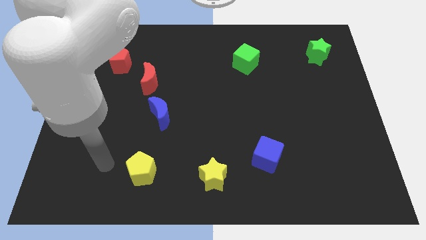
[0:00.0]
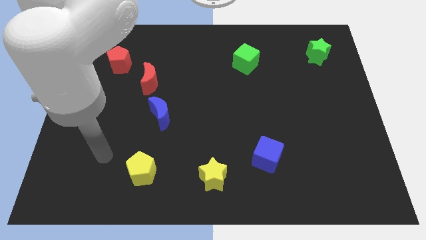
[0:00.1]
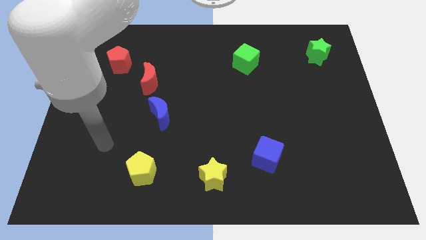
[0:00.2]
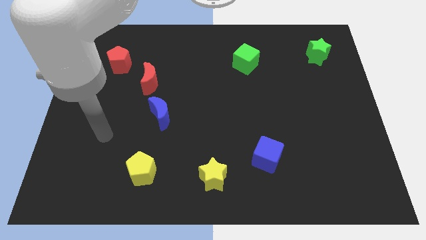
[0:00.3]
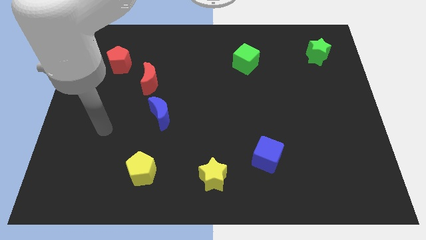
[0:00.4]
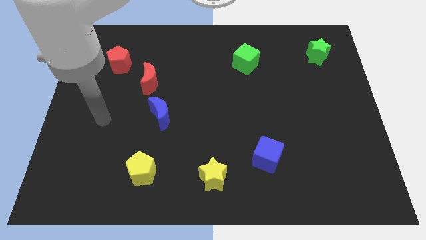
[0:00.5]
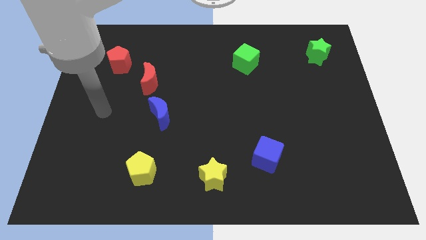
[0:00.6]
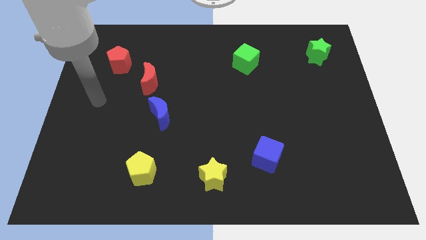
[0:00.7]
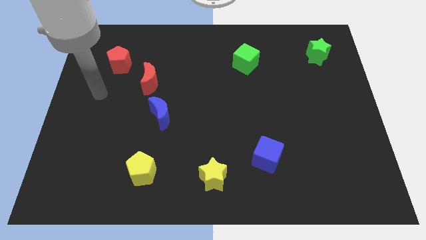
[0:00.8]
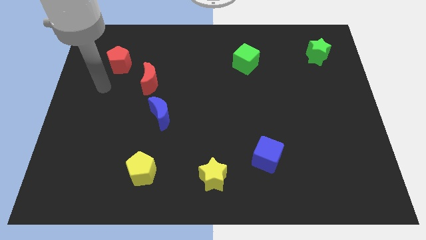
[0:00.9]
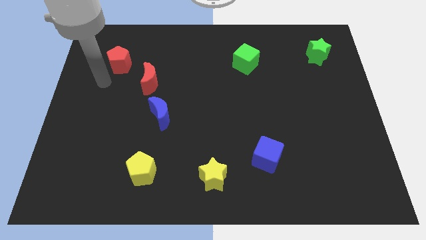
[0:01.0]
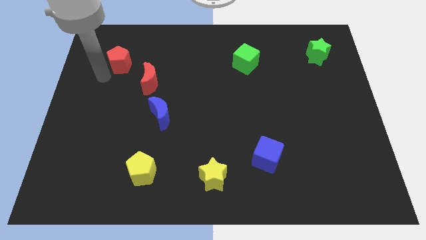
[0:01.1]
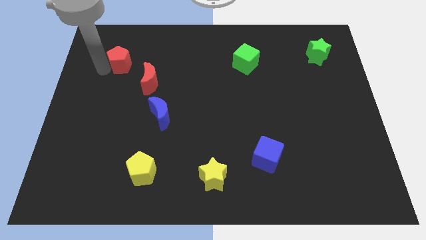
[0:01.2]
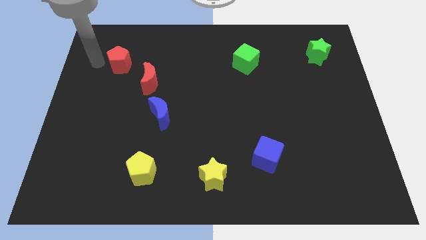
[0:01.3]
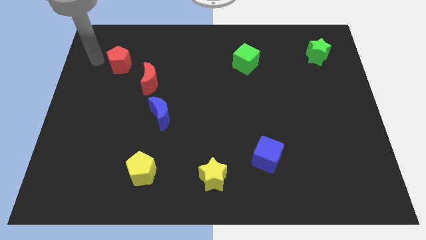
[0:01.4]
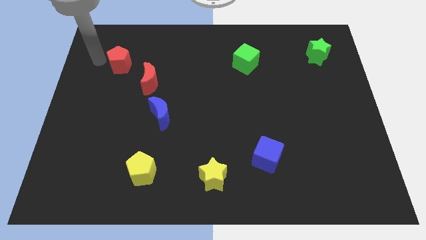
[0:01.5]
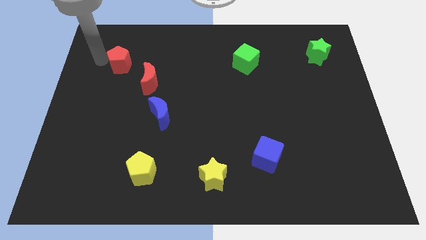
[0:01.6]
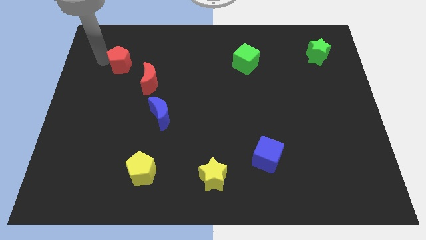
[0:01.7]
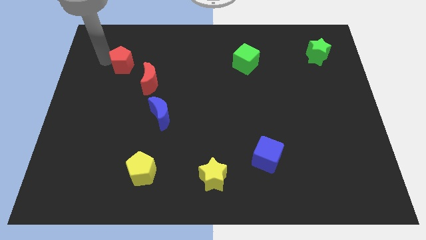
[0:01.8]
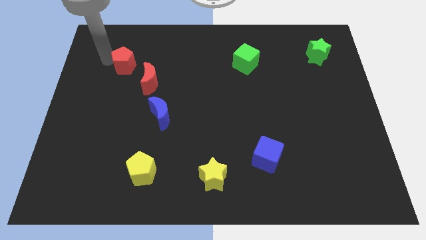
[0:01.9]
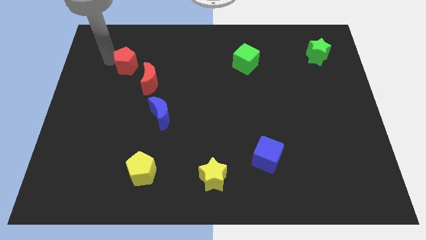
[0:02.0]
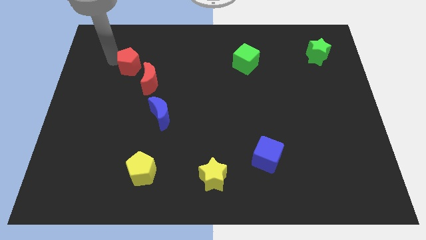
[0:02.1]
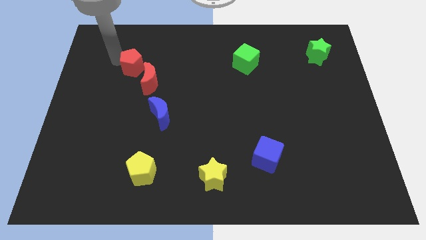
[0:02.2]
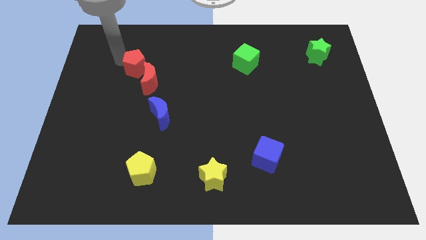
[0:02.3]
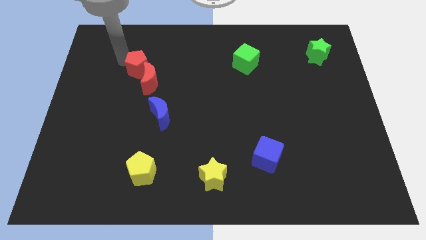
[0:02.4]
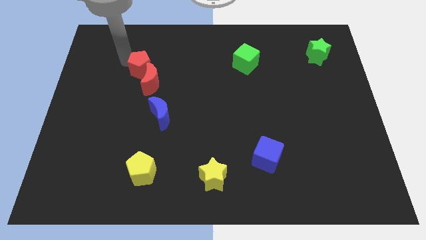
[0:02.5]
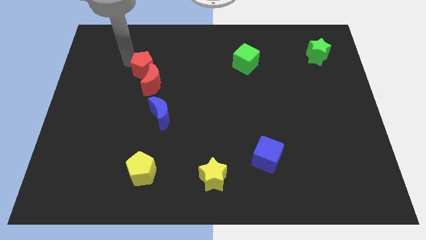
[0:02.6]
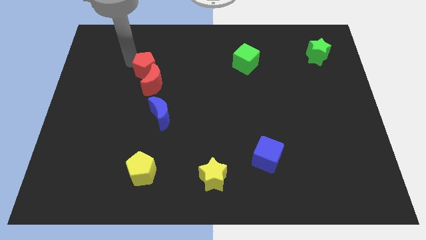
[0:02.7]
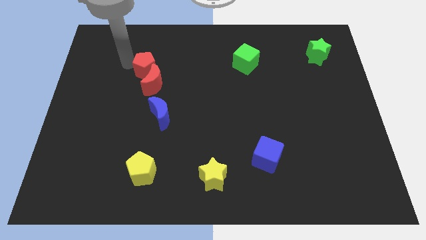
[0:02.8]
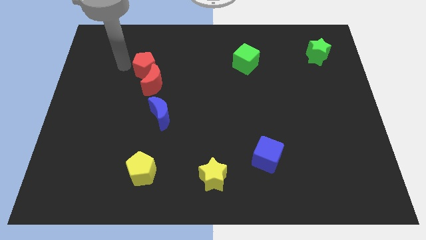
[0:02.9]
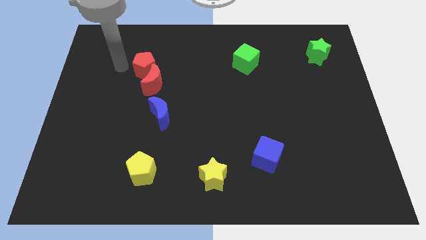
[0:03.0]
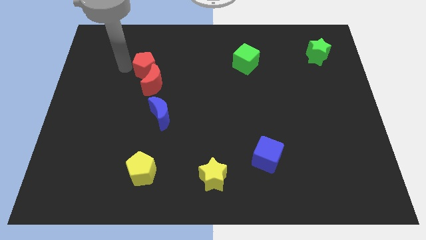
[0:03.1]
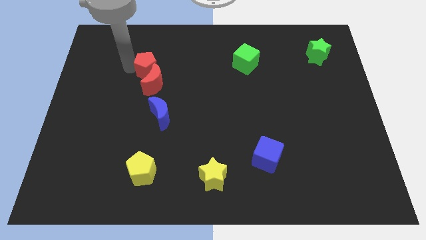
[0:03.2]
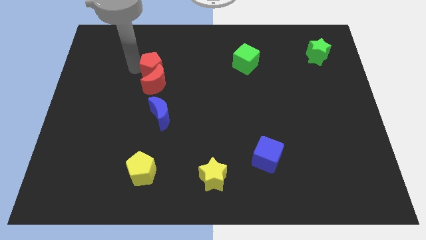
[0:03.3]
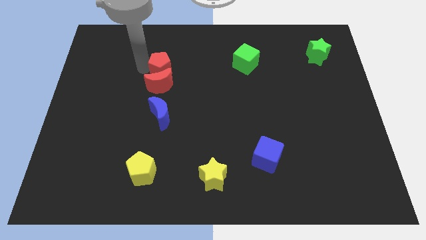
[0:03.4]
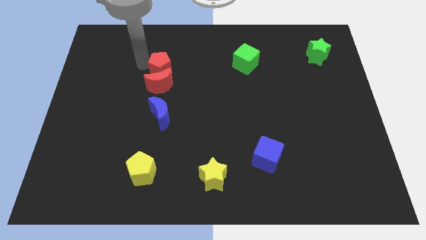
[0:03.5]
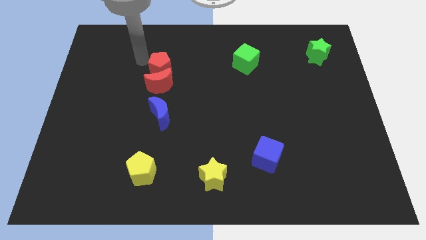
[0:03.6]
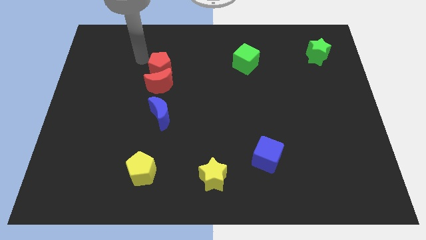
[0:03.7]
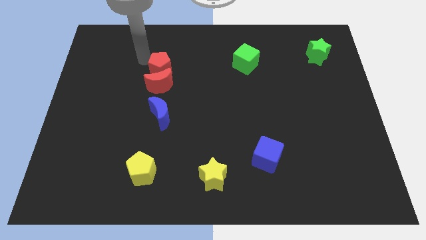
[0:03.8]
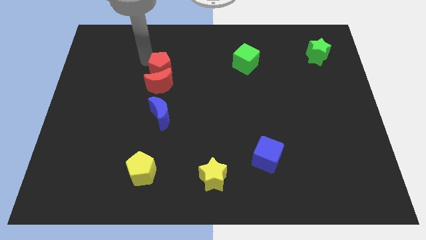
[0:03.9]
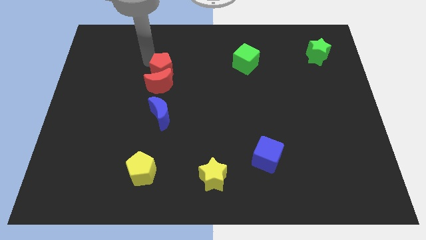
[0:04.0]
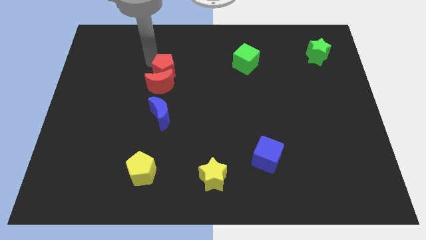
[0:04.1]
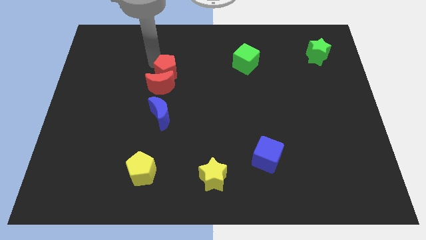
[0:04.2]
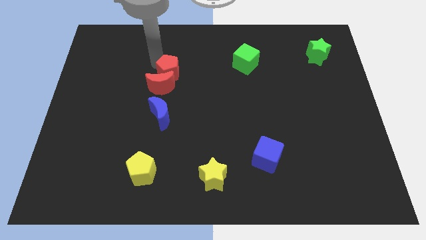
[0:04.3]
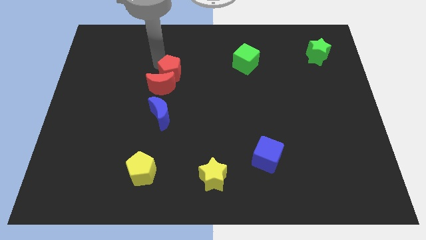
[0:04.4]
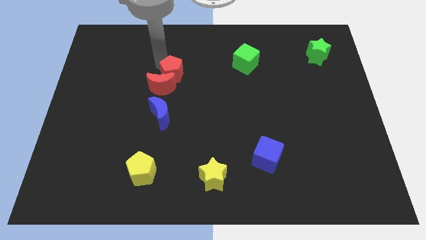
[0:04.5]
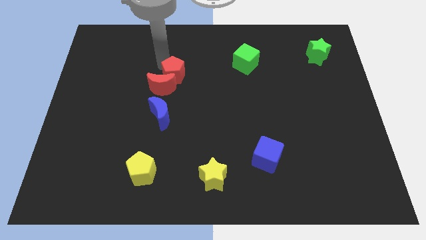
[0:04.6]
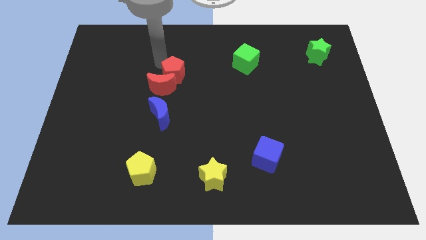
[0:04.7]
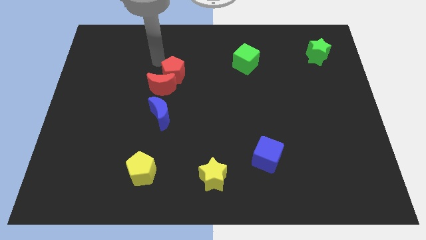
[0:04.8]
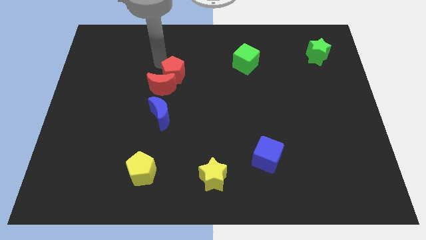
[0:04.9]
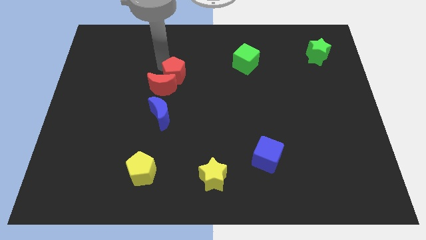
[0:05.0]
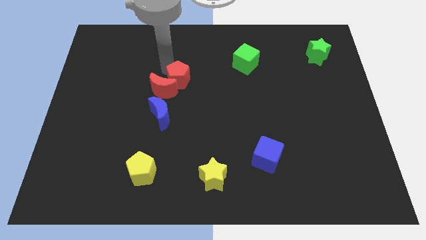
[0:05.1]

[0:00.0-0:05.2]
slide the red pentagon to the center of the board

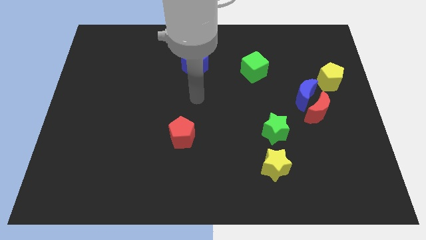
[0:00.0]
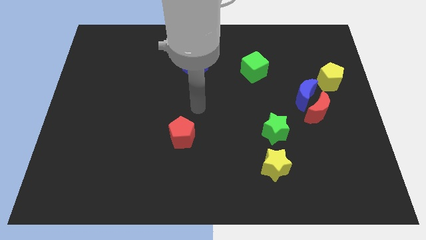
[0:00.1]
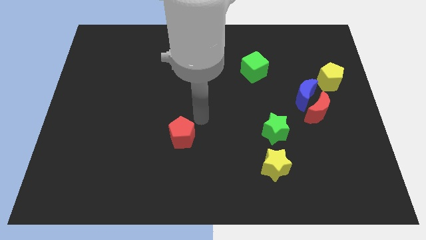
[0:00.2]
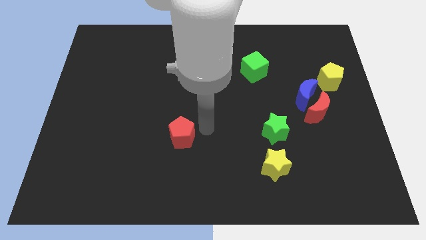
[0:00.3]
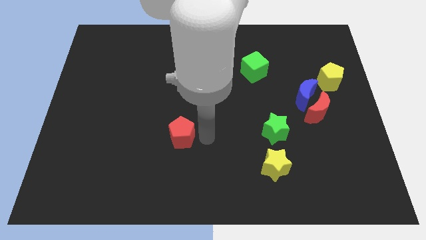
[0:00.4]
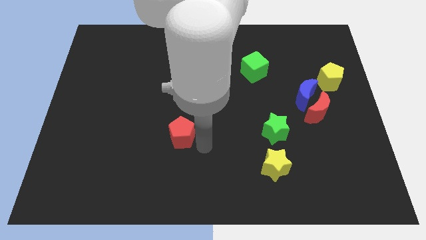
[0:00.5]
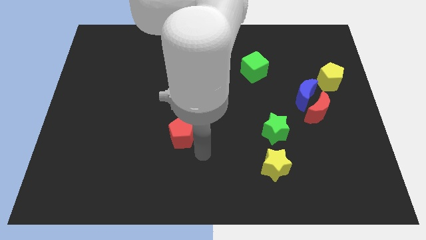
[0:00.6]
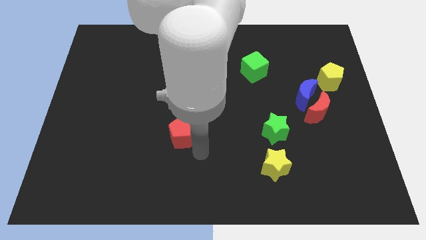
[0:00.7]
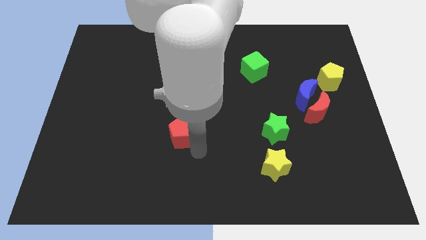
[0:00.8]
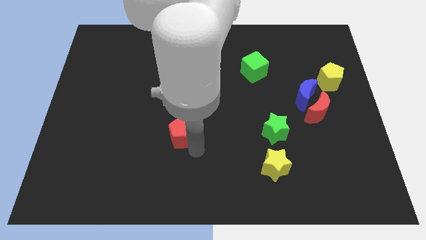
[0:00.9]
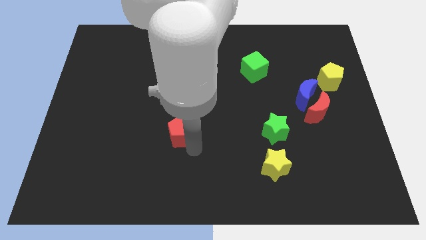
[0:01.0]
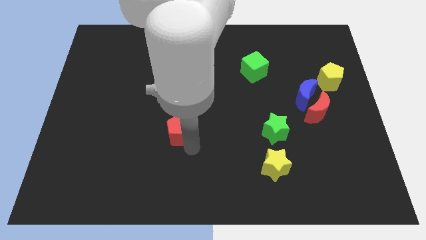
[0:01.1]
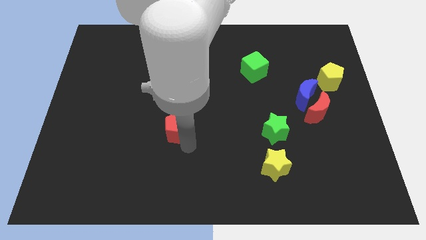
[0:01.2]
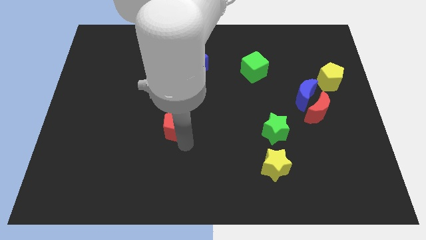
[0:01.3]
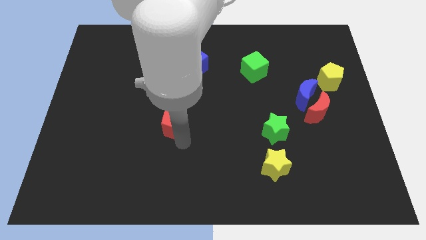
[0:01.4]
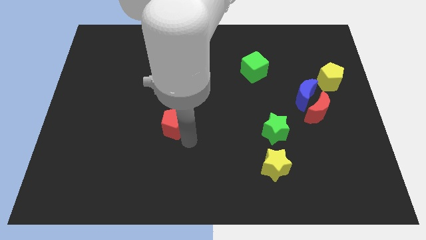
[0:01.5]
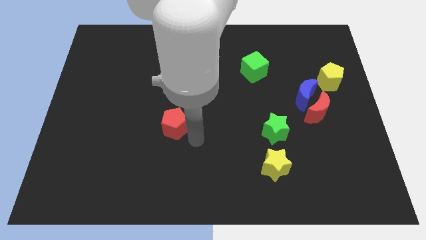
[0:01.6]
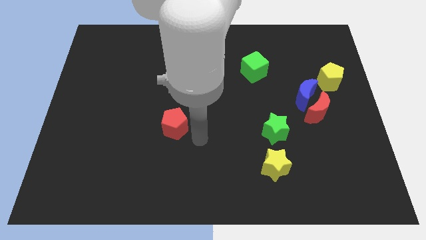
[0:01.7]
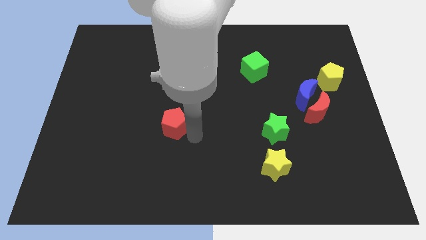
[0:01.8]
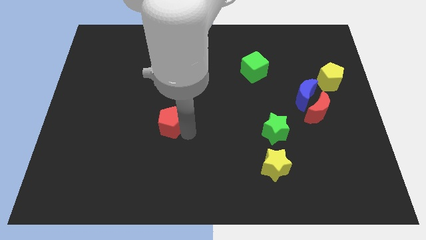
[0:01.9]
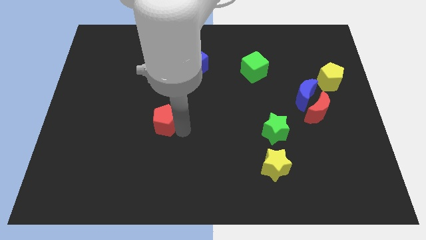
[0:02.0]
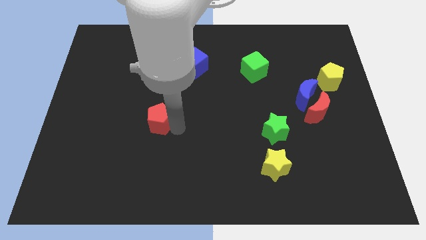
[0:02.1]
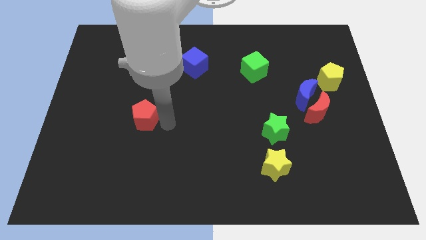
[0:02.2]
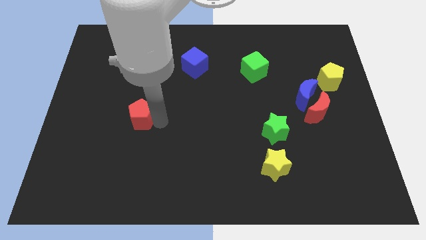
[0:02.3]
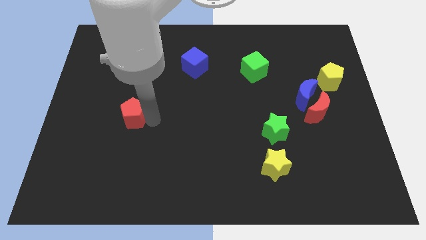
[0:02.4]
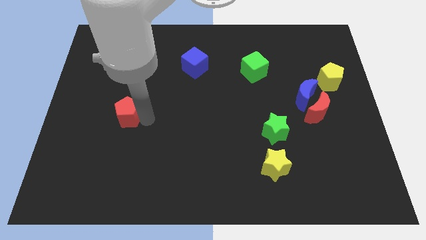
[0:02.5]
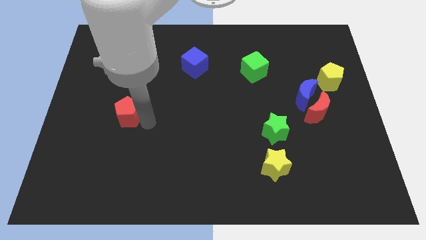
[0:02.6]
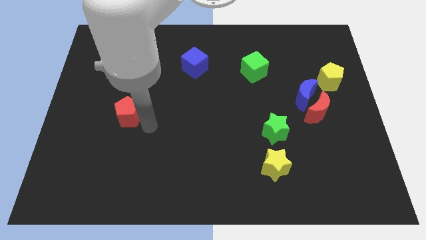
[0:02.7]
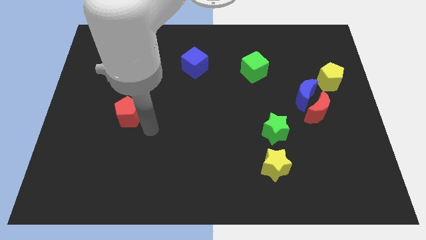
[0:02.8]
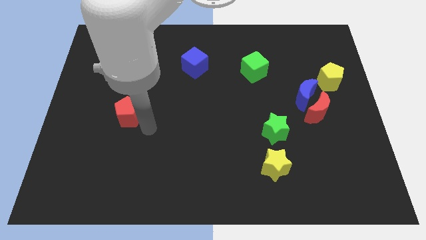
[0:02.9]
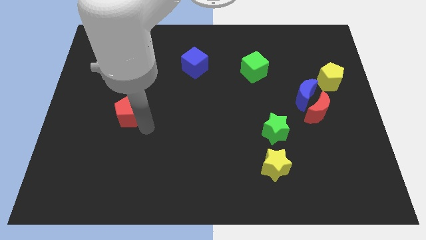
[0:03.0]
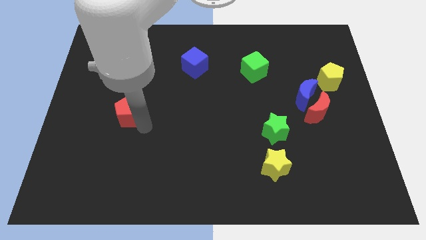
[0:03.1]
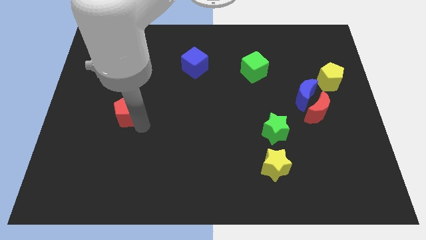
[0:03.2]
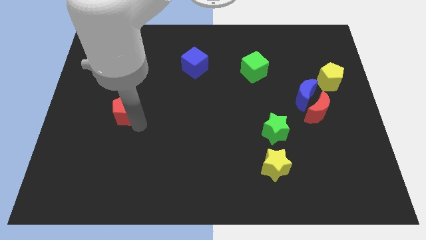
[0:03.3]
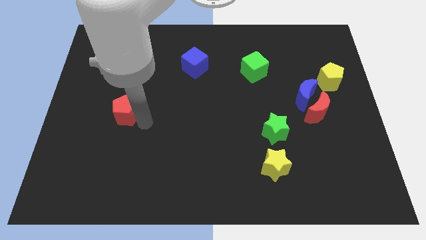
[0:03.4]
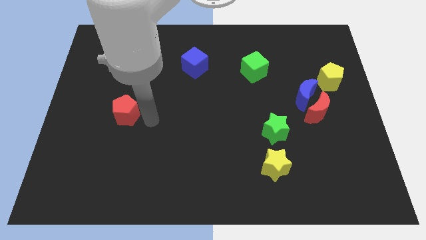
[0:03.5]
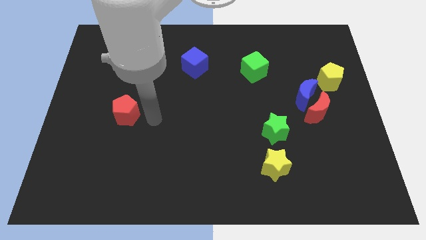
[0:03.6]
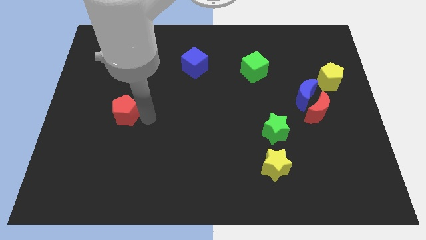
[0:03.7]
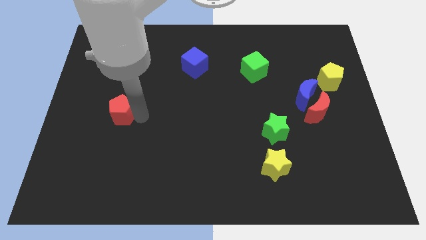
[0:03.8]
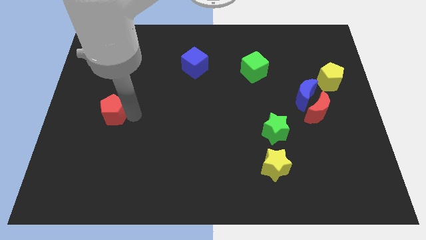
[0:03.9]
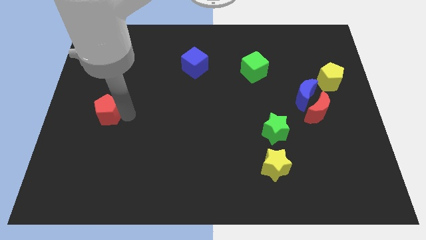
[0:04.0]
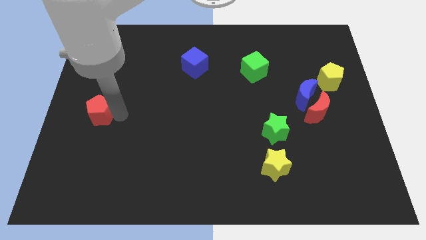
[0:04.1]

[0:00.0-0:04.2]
slide the red pentagon to the left side
